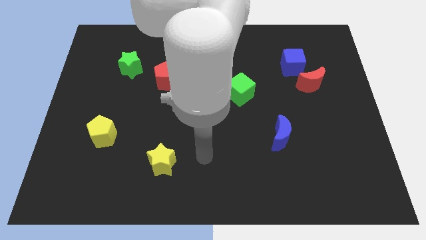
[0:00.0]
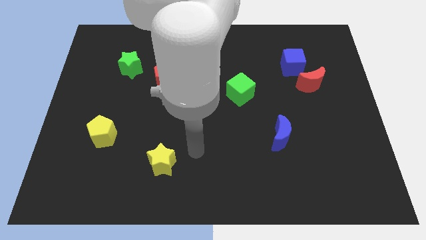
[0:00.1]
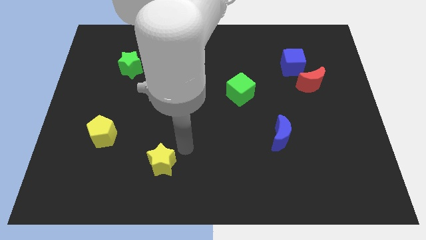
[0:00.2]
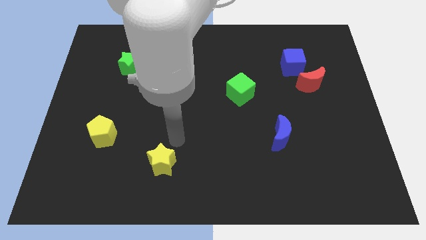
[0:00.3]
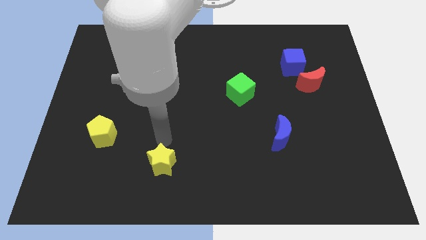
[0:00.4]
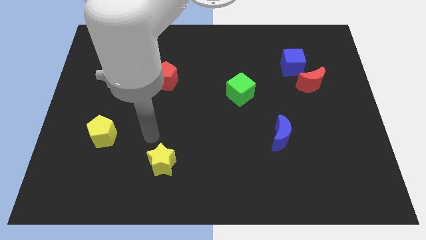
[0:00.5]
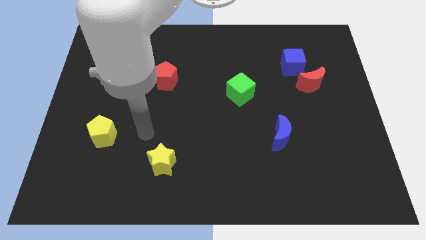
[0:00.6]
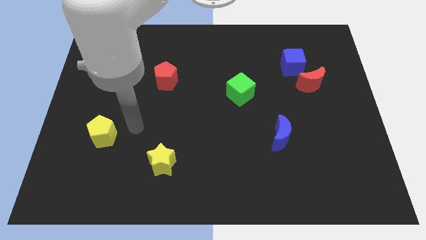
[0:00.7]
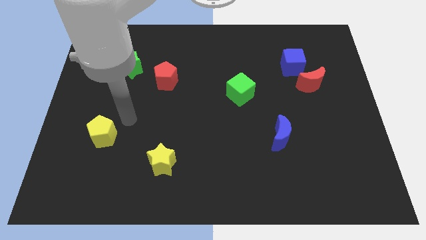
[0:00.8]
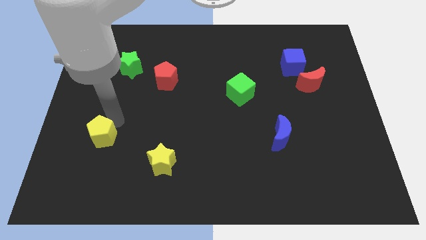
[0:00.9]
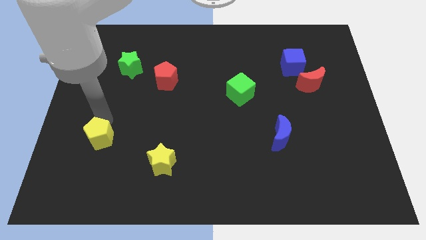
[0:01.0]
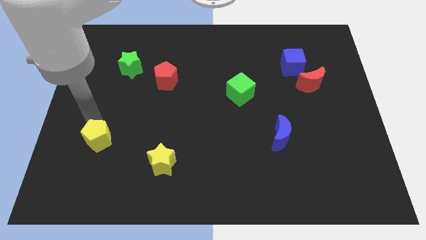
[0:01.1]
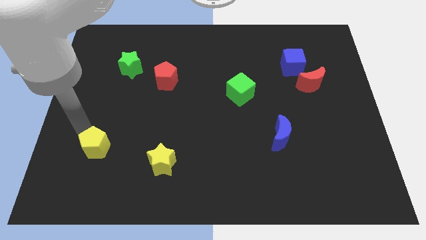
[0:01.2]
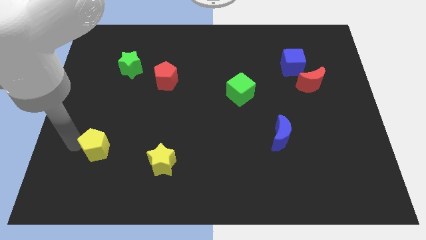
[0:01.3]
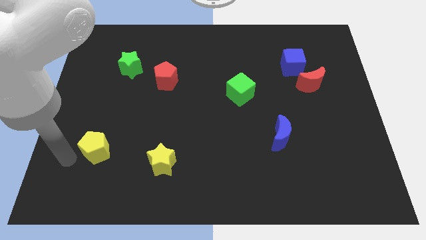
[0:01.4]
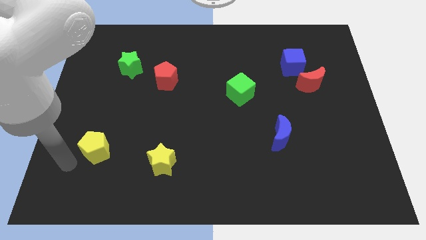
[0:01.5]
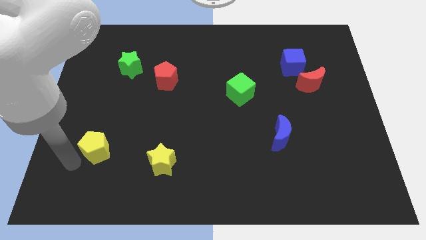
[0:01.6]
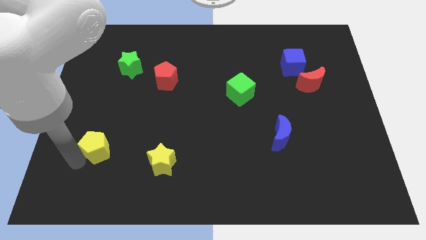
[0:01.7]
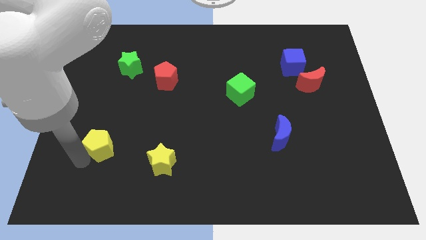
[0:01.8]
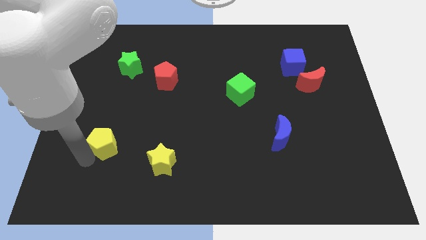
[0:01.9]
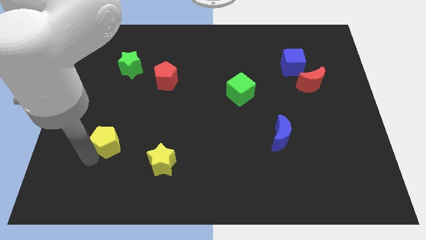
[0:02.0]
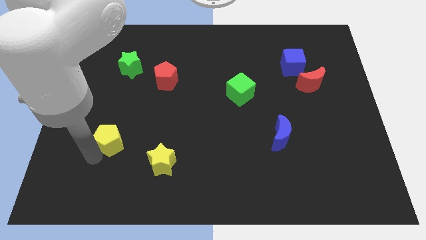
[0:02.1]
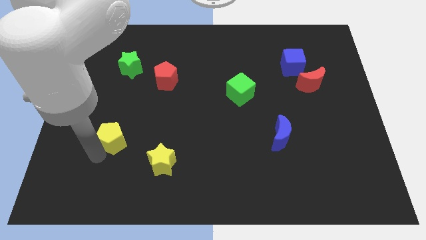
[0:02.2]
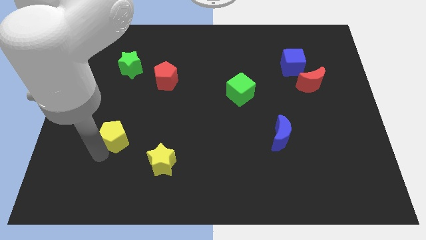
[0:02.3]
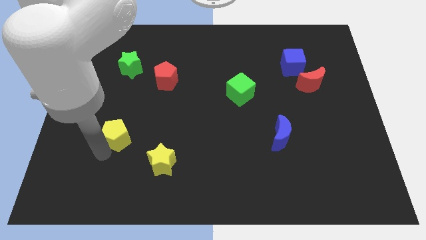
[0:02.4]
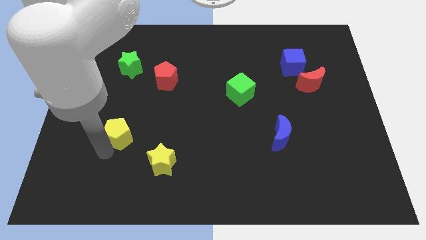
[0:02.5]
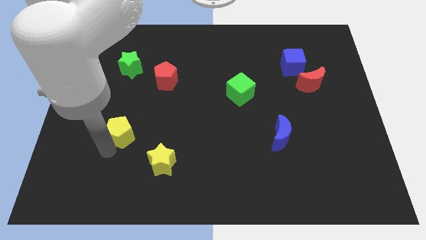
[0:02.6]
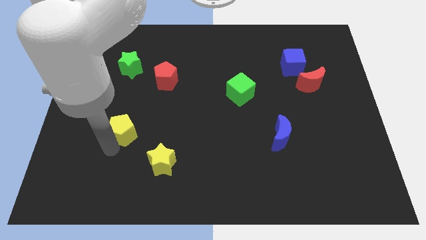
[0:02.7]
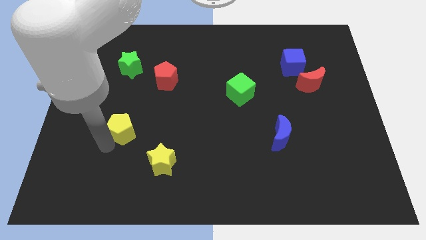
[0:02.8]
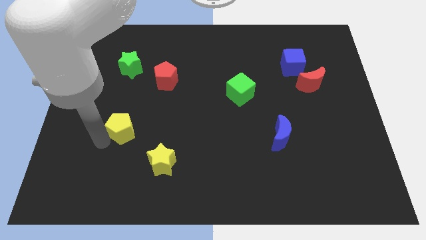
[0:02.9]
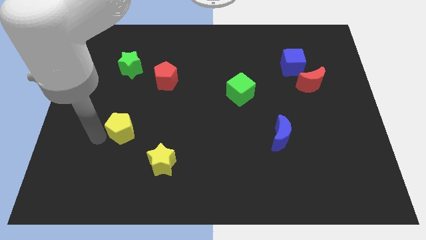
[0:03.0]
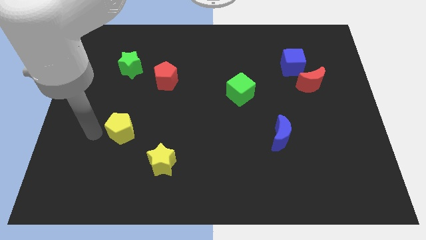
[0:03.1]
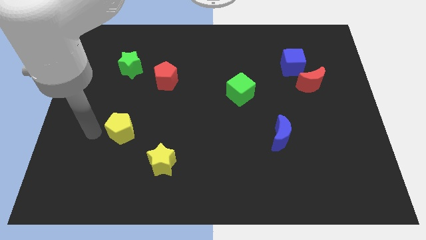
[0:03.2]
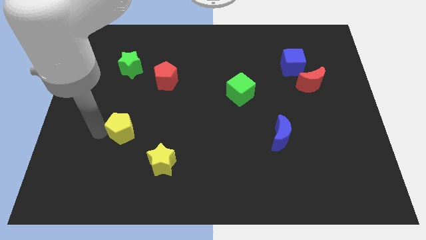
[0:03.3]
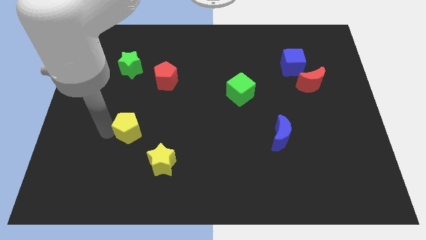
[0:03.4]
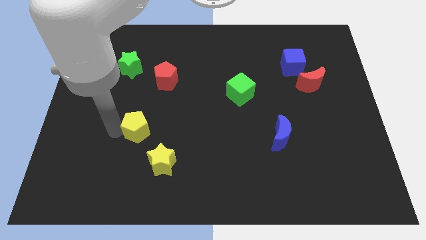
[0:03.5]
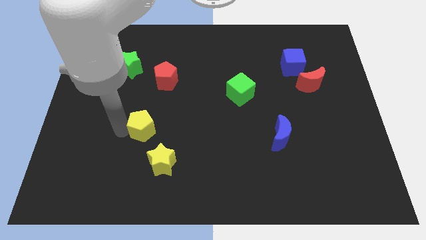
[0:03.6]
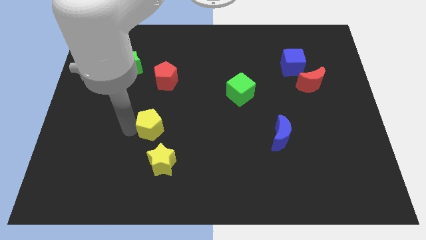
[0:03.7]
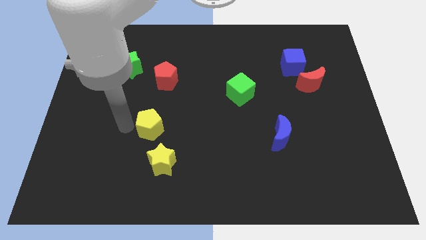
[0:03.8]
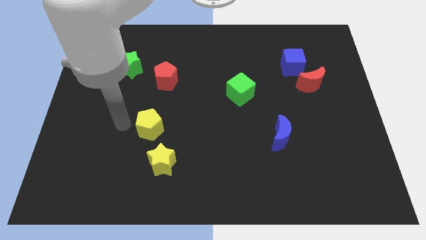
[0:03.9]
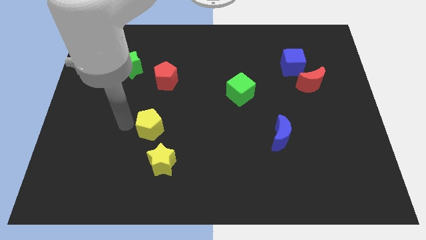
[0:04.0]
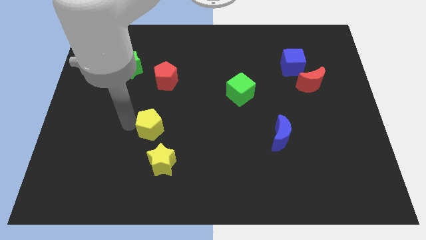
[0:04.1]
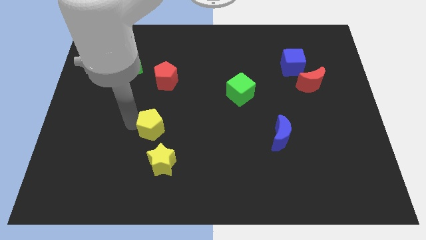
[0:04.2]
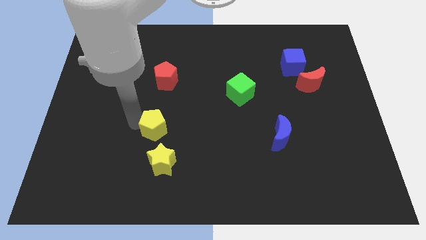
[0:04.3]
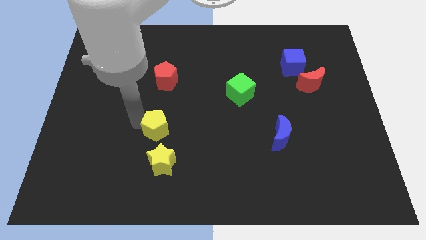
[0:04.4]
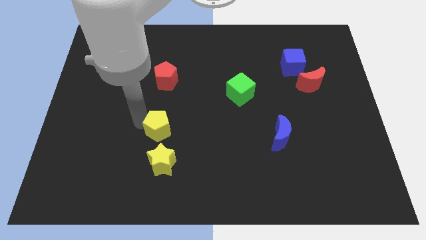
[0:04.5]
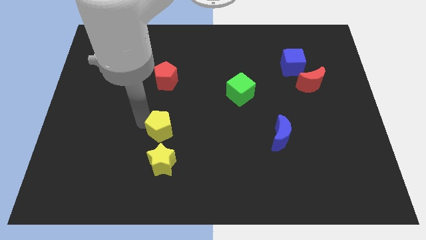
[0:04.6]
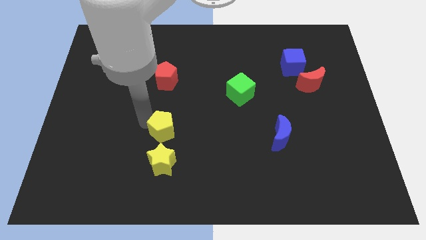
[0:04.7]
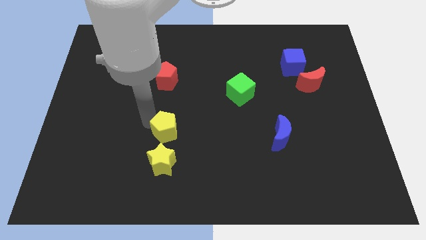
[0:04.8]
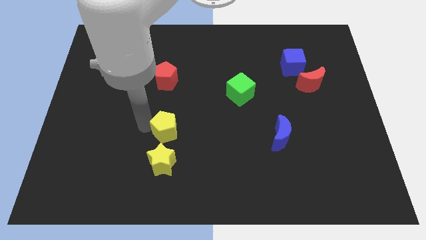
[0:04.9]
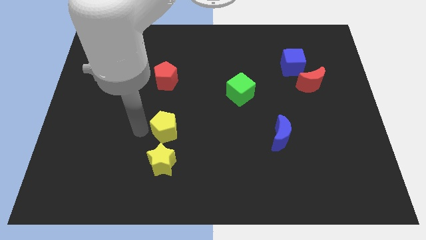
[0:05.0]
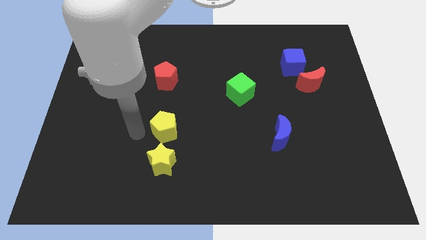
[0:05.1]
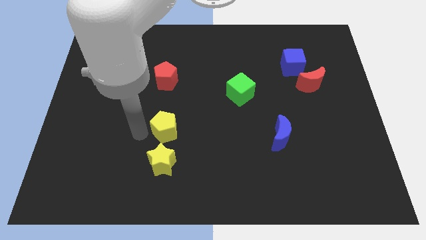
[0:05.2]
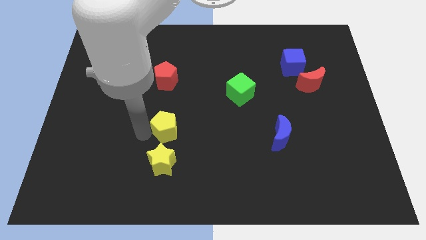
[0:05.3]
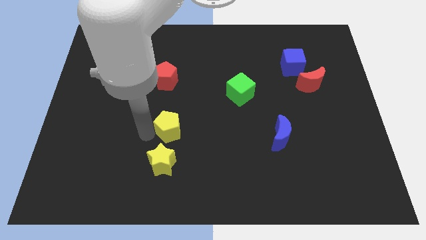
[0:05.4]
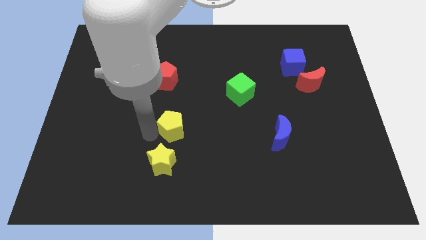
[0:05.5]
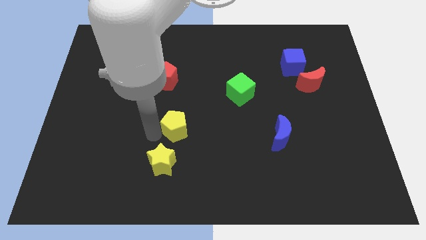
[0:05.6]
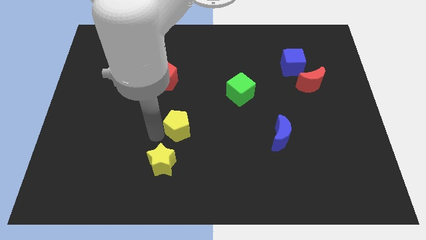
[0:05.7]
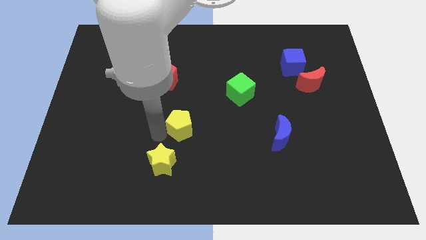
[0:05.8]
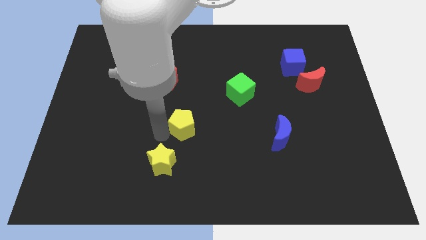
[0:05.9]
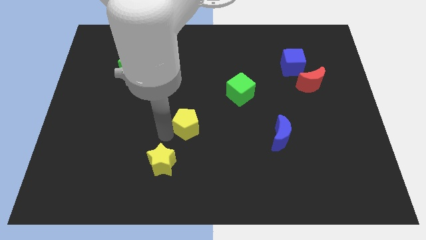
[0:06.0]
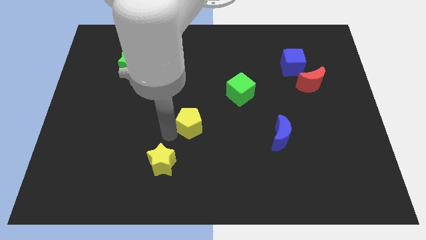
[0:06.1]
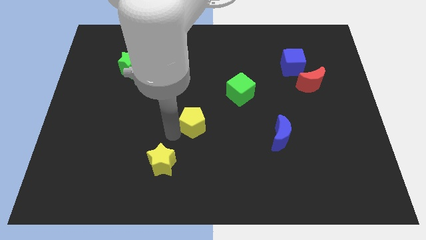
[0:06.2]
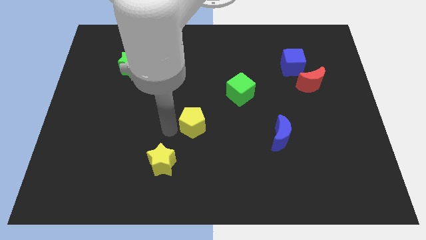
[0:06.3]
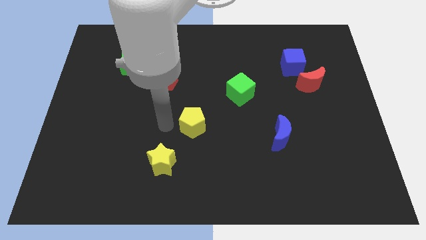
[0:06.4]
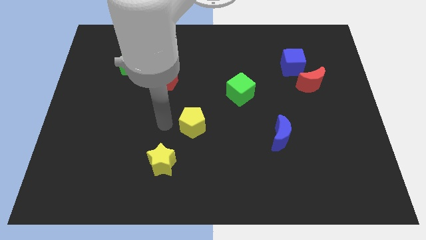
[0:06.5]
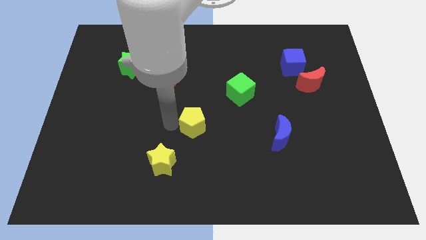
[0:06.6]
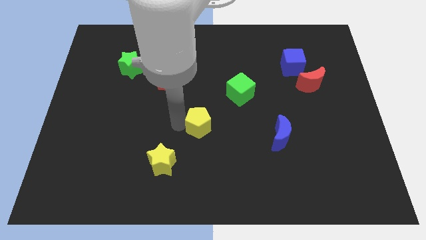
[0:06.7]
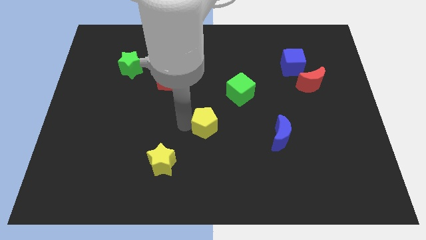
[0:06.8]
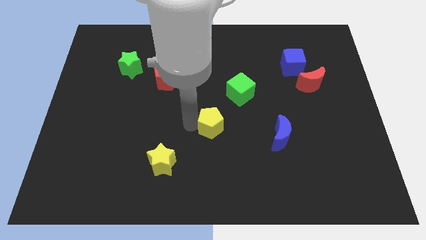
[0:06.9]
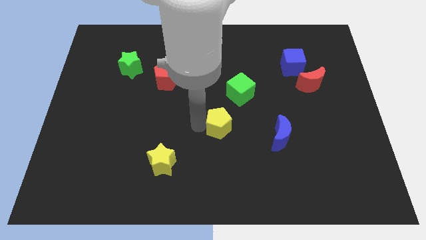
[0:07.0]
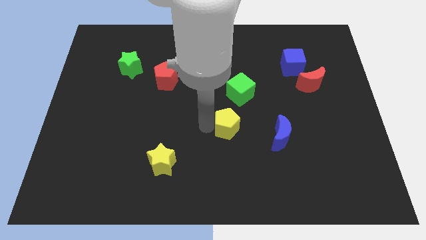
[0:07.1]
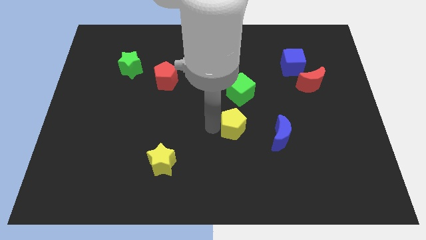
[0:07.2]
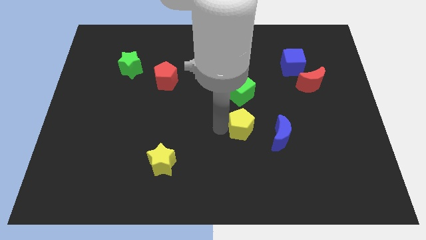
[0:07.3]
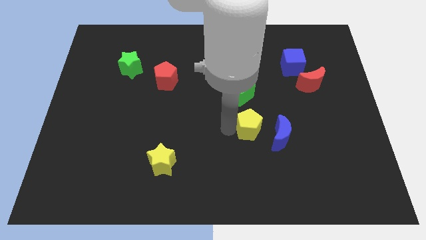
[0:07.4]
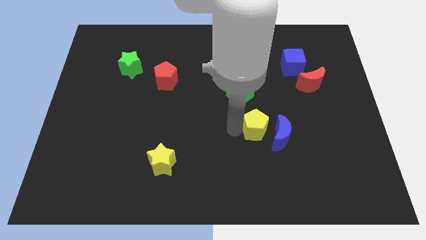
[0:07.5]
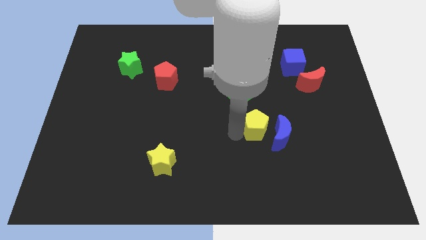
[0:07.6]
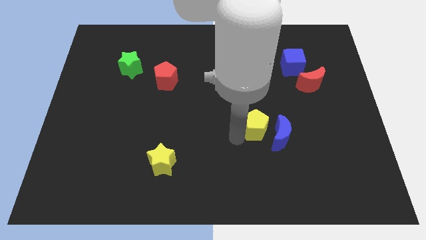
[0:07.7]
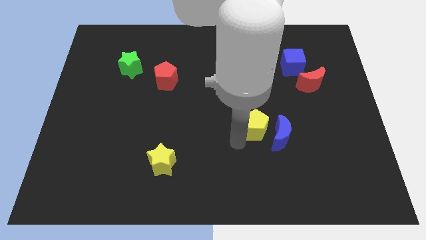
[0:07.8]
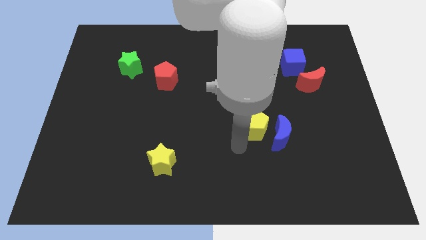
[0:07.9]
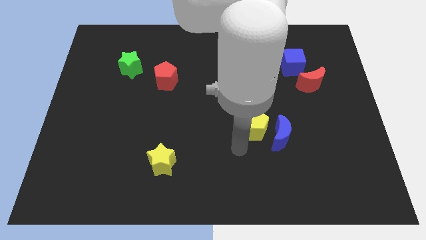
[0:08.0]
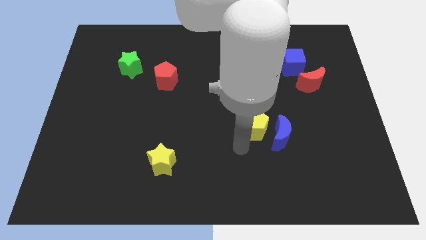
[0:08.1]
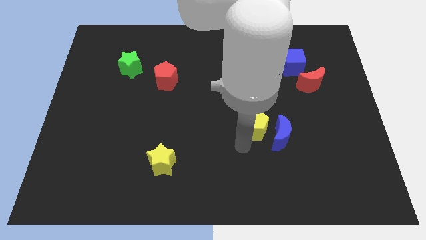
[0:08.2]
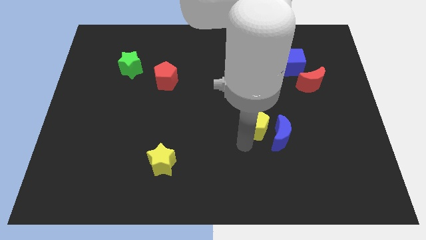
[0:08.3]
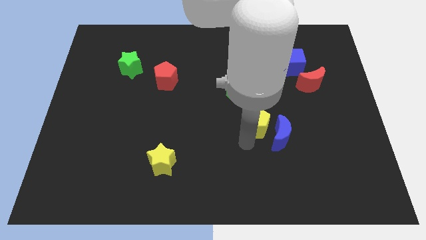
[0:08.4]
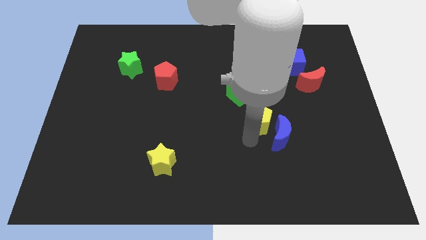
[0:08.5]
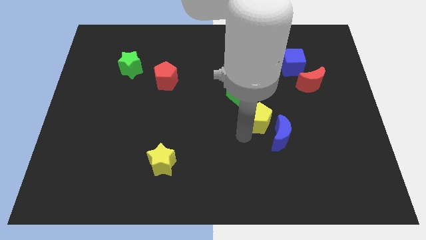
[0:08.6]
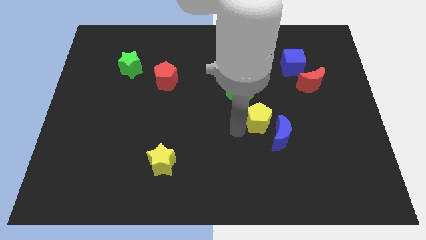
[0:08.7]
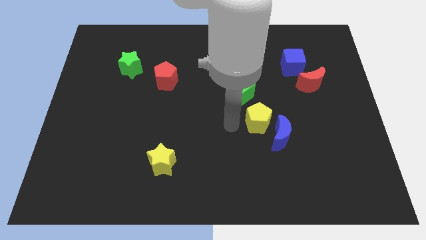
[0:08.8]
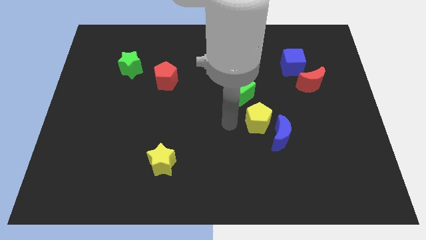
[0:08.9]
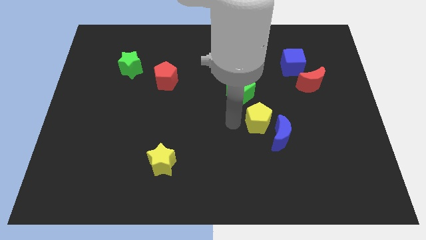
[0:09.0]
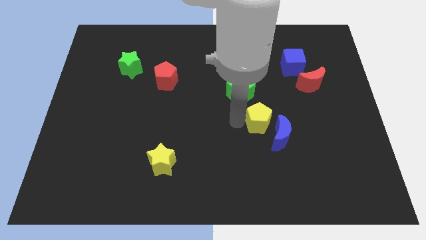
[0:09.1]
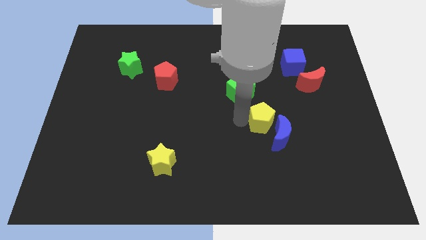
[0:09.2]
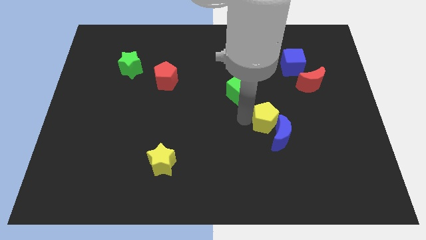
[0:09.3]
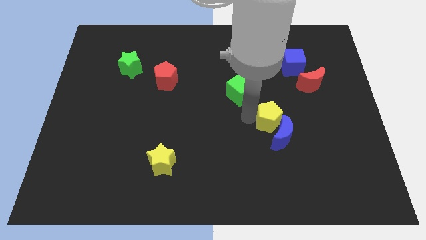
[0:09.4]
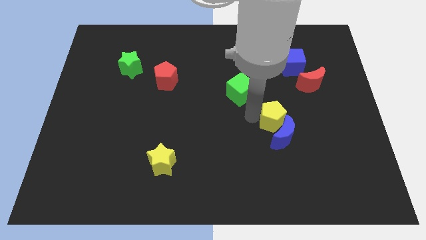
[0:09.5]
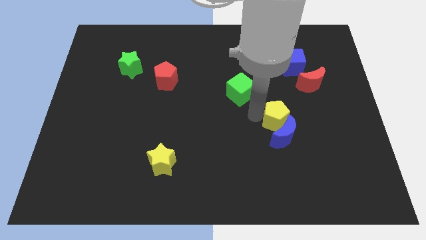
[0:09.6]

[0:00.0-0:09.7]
push the yellow pentagon to the top right of the blue moon
